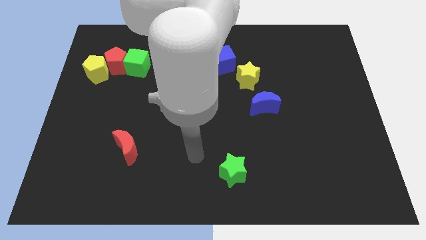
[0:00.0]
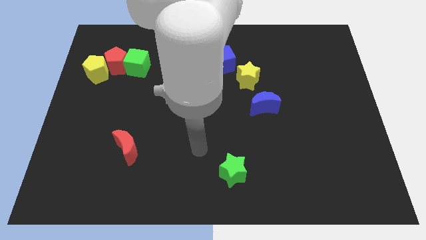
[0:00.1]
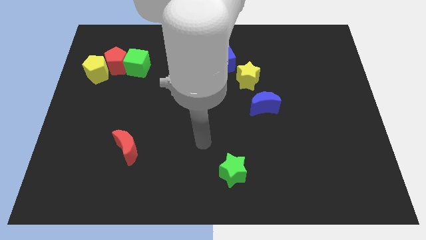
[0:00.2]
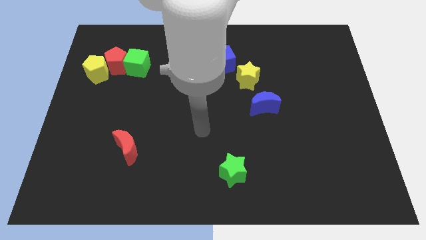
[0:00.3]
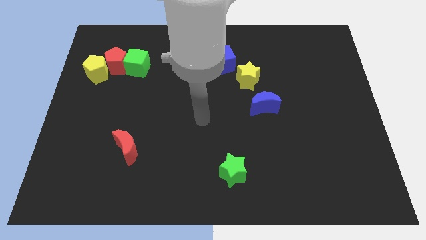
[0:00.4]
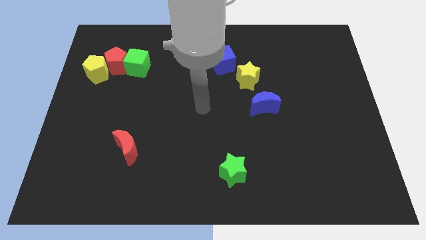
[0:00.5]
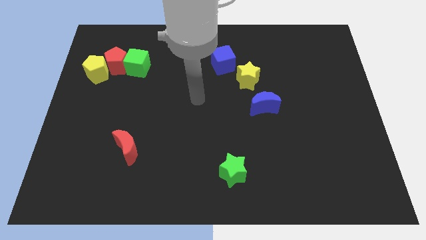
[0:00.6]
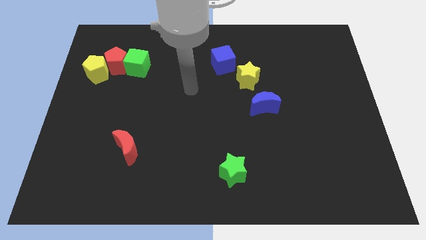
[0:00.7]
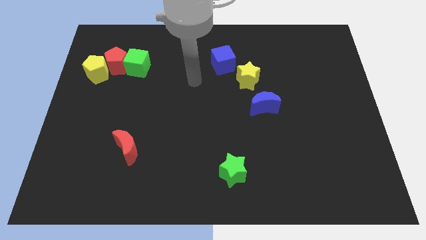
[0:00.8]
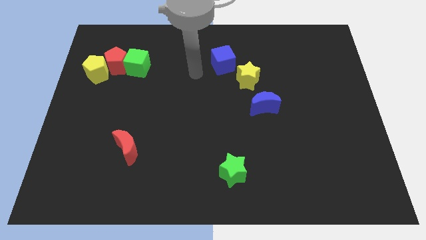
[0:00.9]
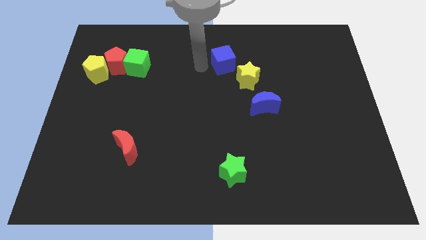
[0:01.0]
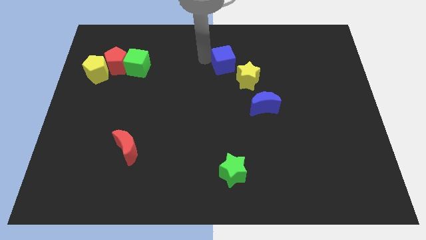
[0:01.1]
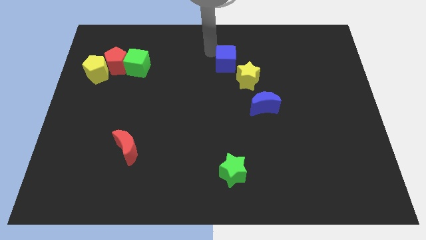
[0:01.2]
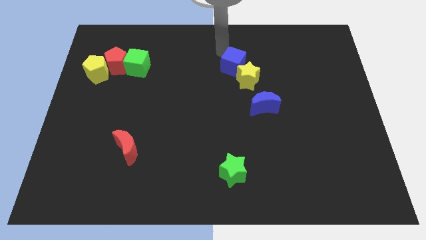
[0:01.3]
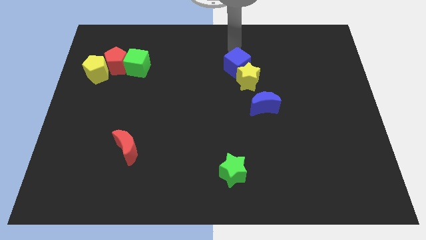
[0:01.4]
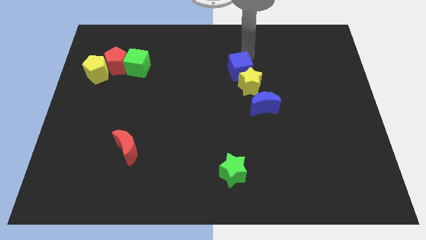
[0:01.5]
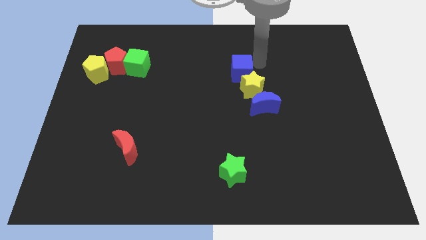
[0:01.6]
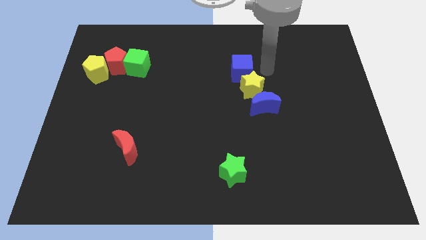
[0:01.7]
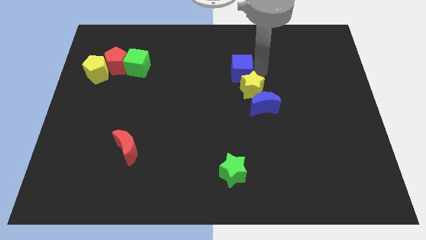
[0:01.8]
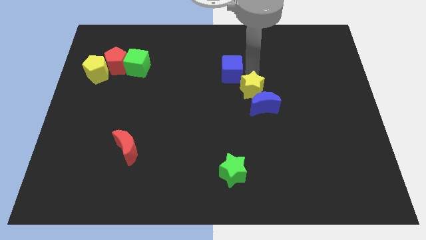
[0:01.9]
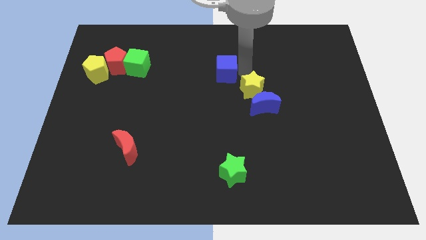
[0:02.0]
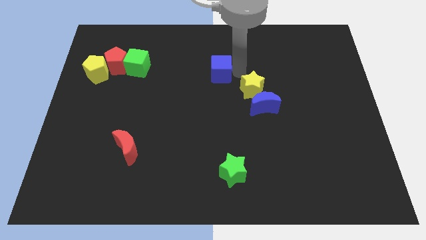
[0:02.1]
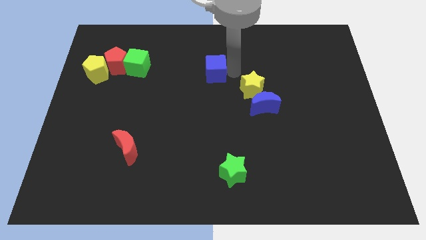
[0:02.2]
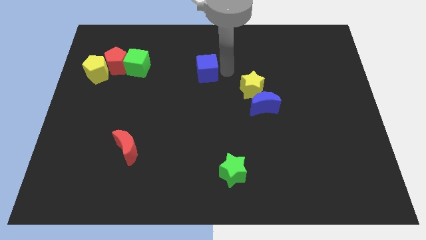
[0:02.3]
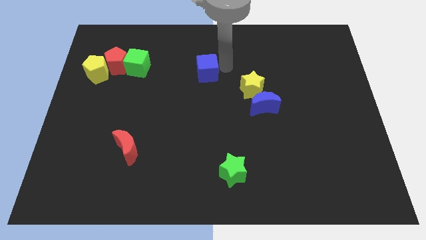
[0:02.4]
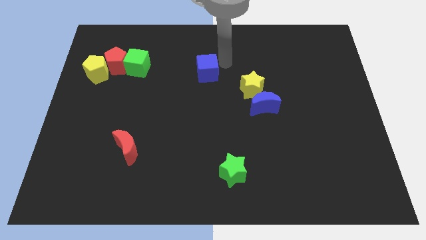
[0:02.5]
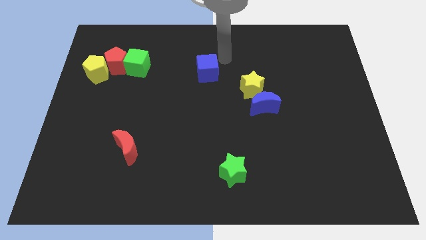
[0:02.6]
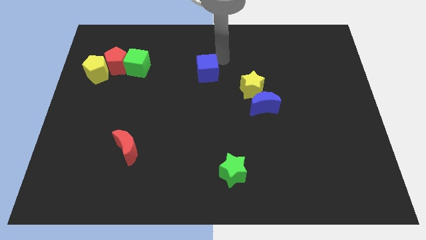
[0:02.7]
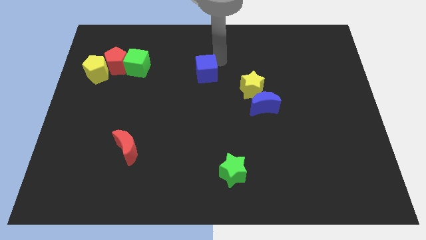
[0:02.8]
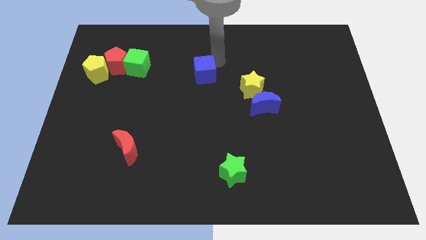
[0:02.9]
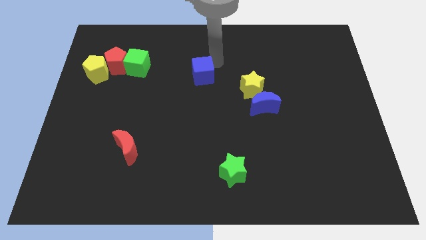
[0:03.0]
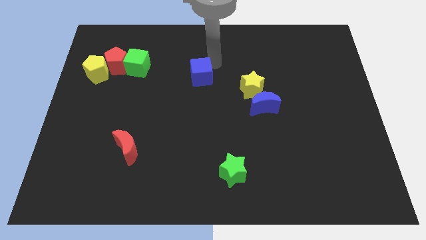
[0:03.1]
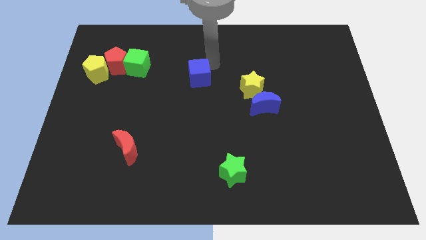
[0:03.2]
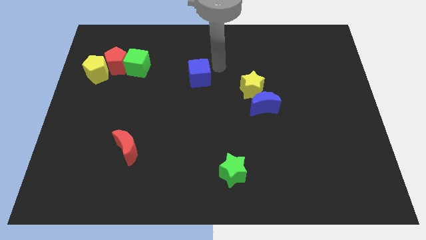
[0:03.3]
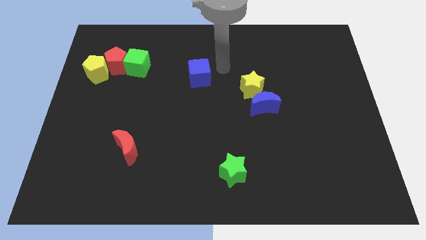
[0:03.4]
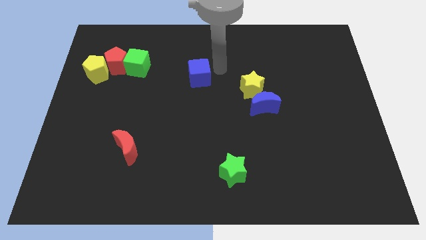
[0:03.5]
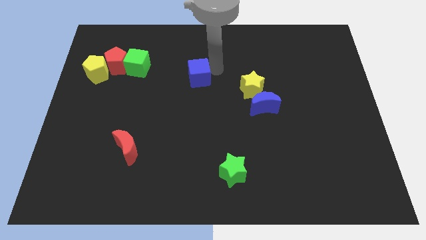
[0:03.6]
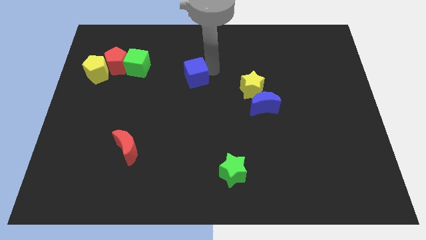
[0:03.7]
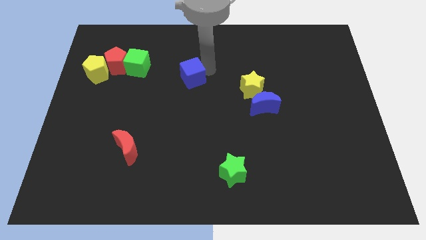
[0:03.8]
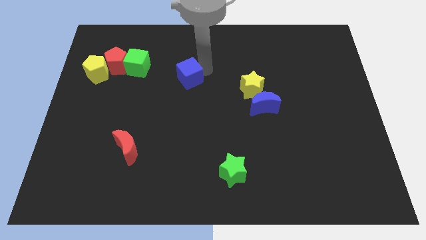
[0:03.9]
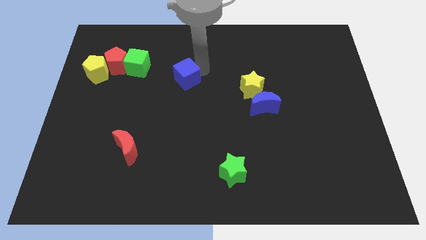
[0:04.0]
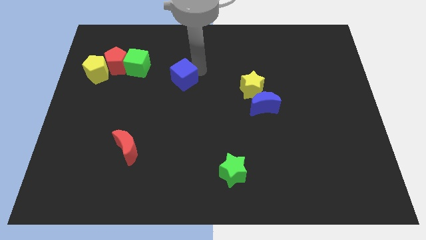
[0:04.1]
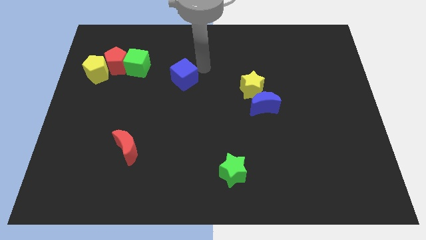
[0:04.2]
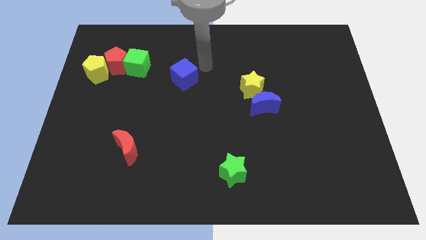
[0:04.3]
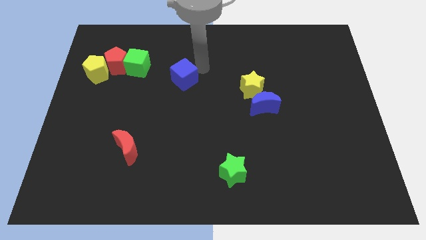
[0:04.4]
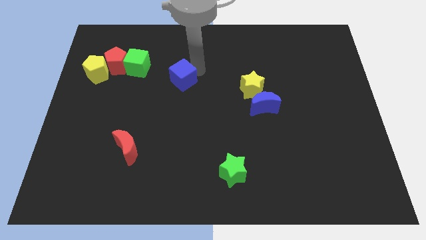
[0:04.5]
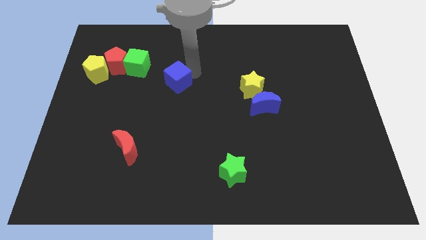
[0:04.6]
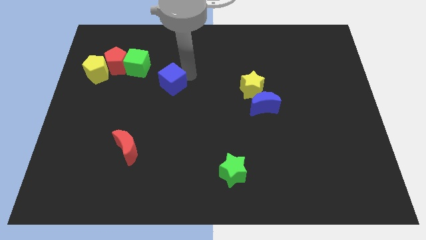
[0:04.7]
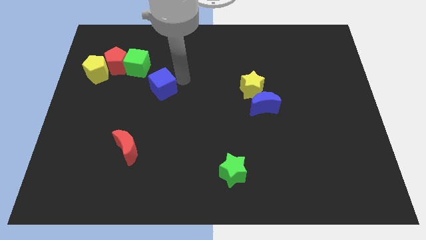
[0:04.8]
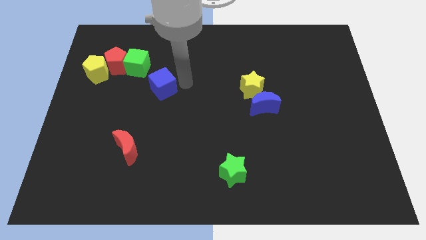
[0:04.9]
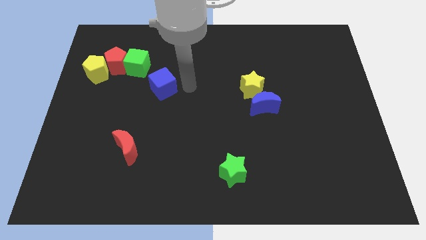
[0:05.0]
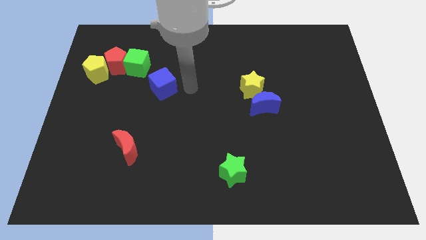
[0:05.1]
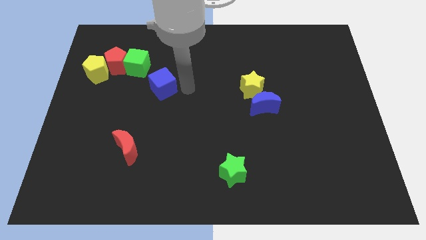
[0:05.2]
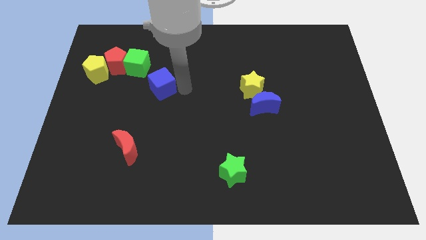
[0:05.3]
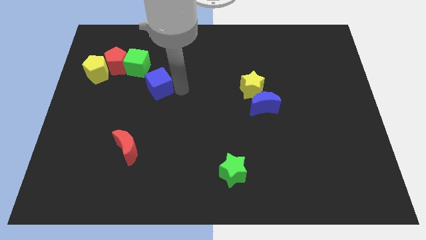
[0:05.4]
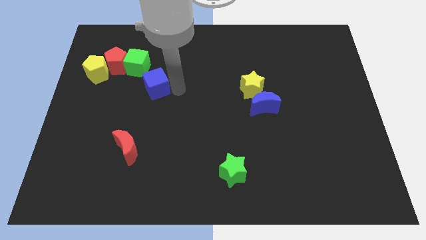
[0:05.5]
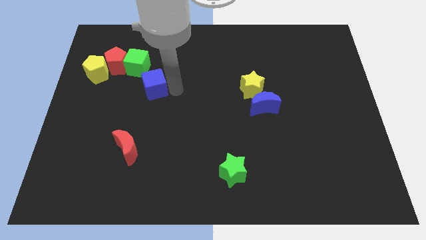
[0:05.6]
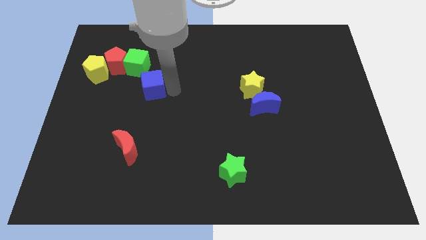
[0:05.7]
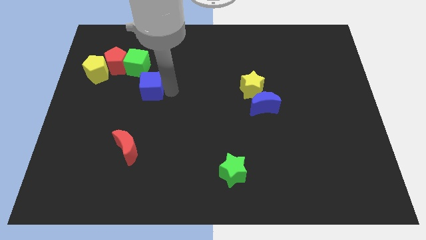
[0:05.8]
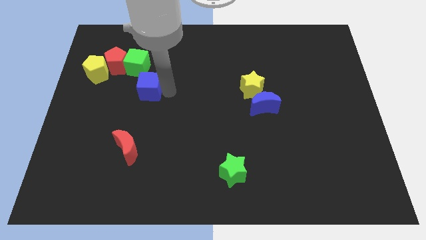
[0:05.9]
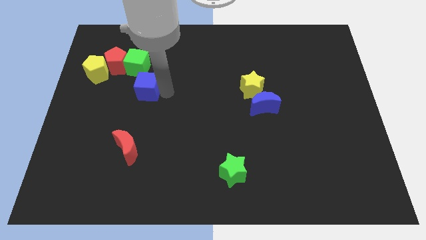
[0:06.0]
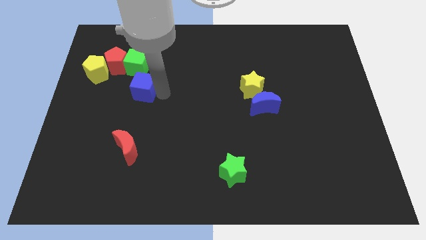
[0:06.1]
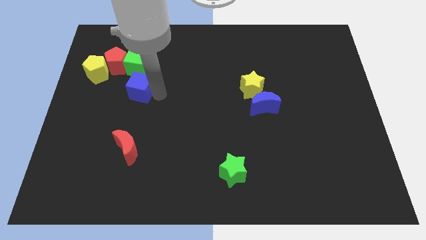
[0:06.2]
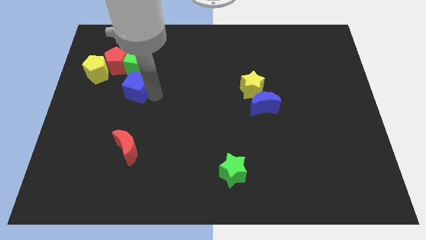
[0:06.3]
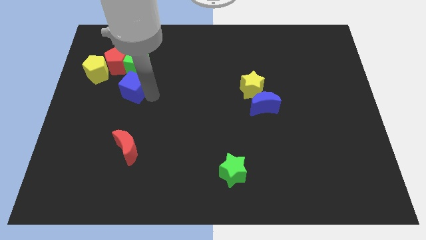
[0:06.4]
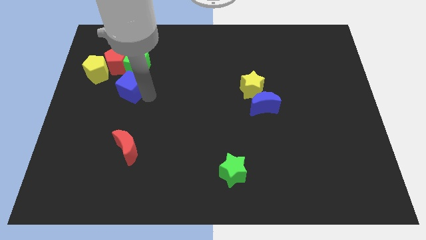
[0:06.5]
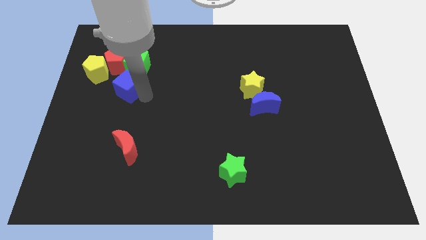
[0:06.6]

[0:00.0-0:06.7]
move the blue cube to the bottom left of the green cube

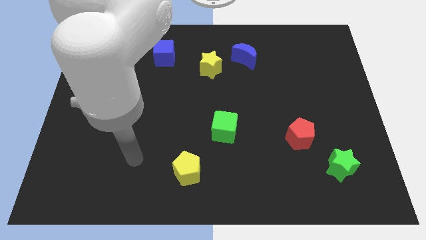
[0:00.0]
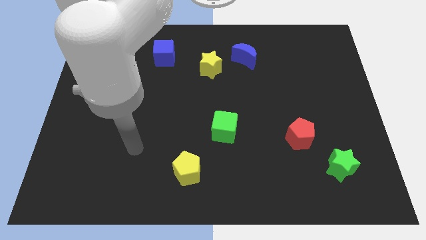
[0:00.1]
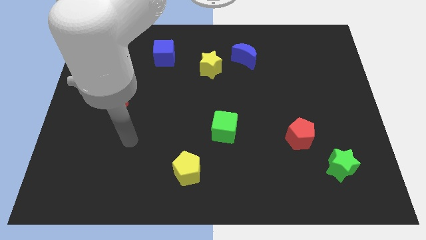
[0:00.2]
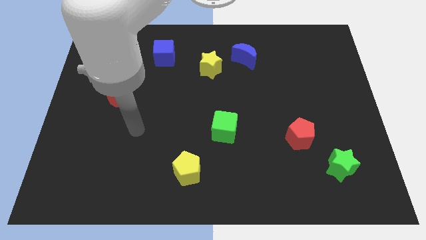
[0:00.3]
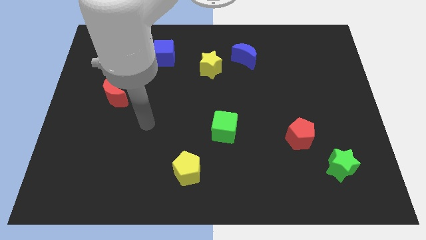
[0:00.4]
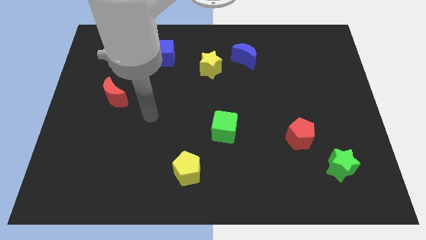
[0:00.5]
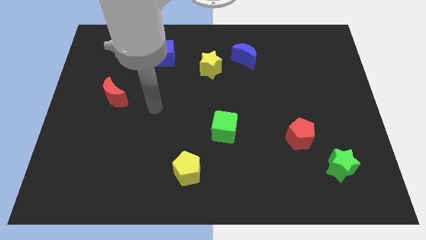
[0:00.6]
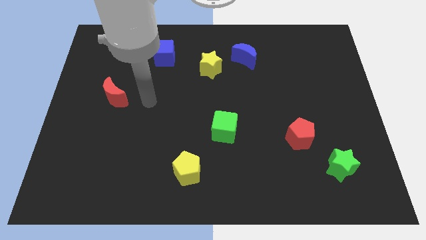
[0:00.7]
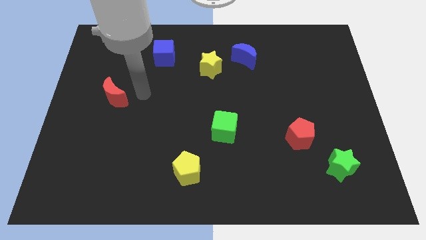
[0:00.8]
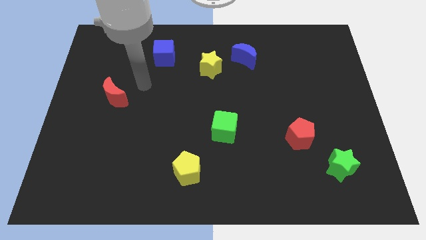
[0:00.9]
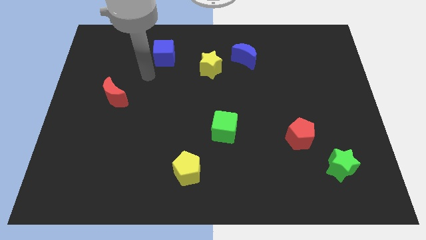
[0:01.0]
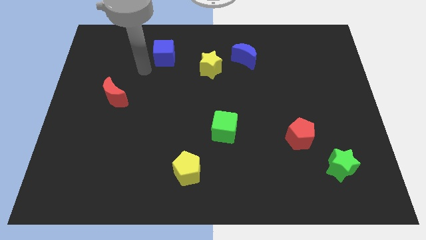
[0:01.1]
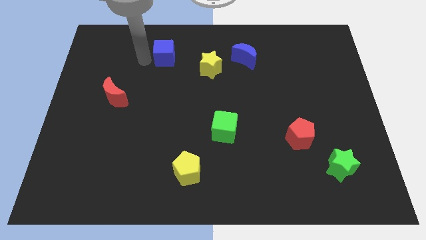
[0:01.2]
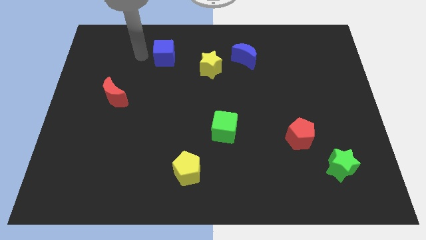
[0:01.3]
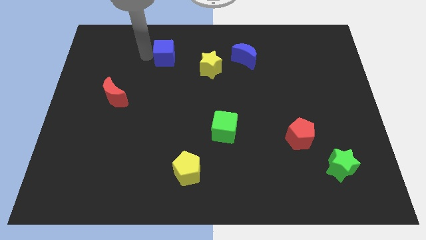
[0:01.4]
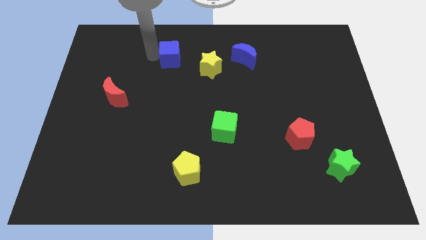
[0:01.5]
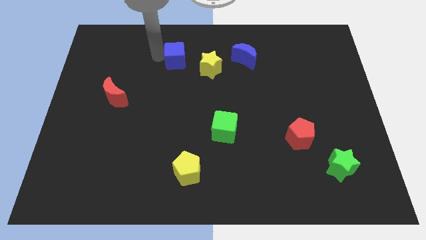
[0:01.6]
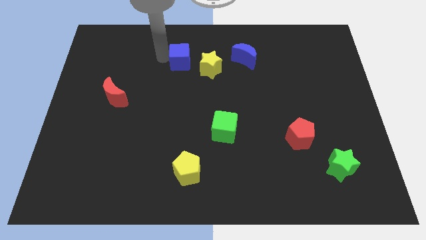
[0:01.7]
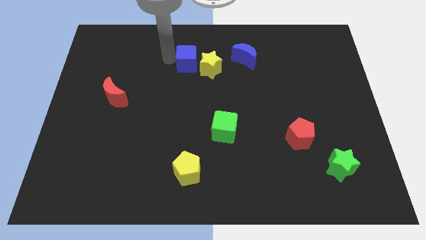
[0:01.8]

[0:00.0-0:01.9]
slide the blue cube to the left side of the blue moon
